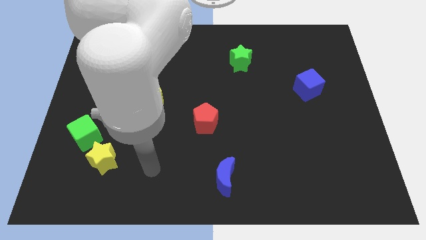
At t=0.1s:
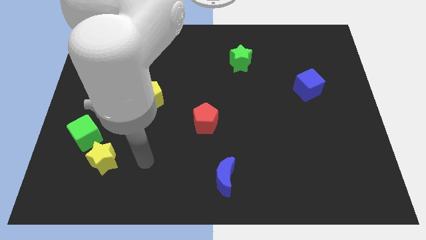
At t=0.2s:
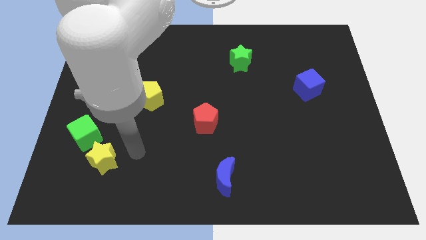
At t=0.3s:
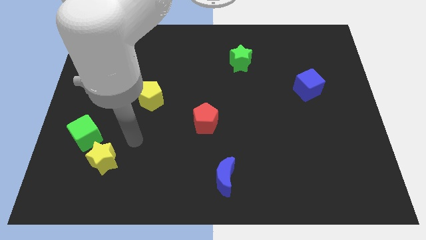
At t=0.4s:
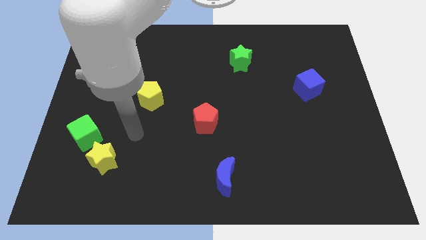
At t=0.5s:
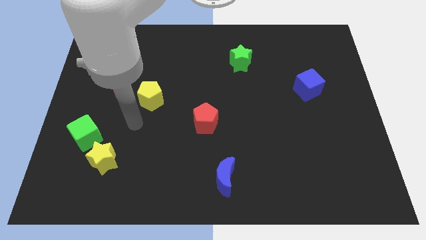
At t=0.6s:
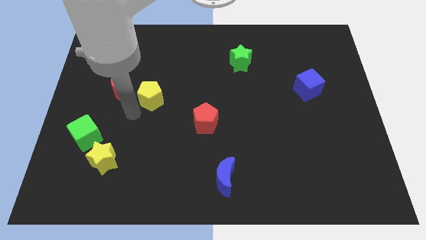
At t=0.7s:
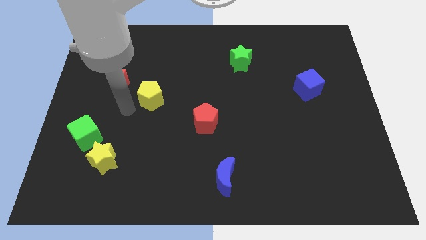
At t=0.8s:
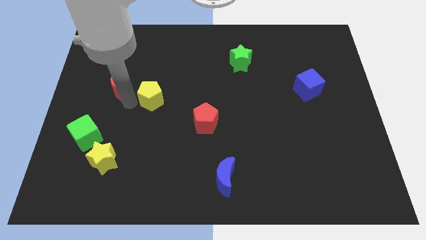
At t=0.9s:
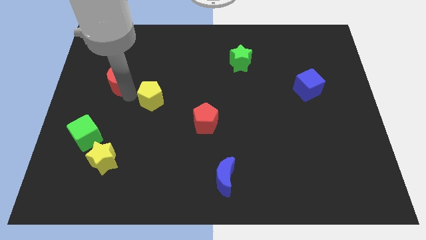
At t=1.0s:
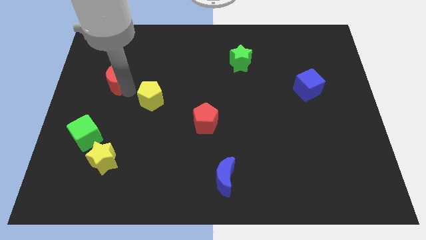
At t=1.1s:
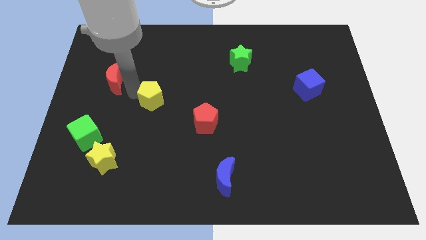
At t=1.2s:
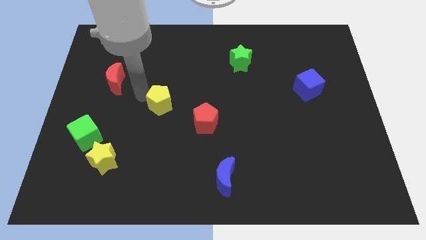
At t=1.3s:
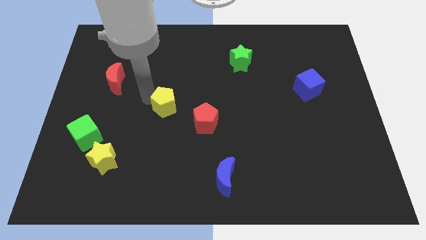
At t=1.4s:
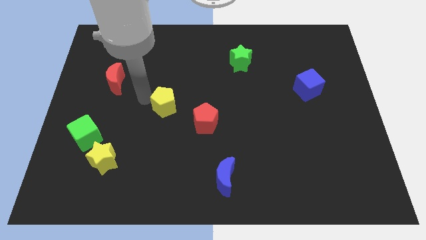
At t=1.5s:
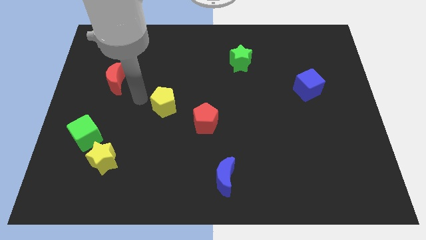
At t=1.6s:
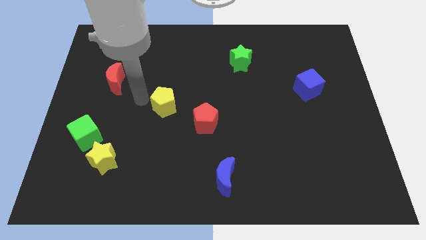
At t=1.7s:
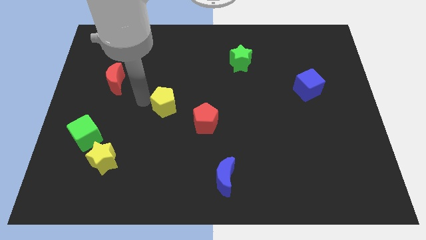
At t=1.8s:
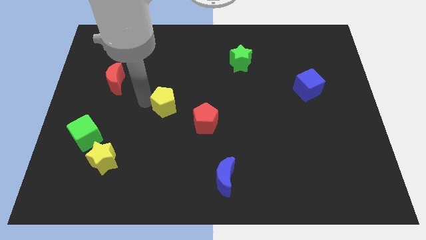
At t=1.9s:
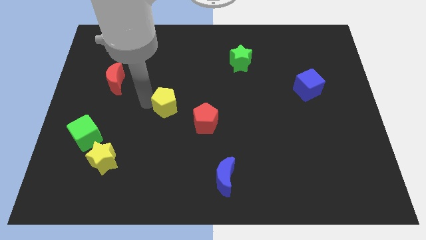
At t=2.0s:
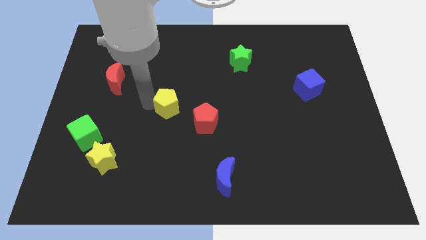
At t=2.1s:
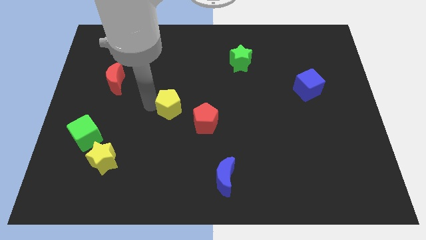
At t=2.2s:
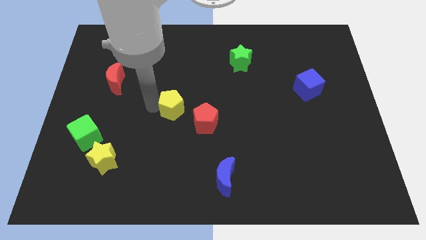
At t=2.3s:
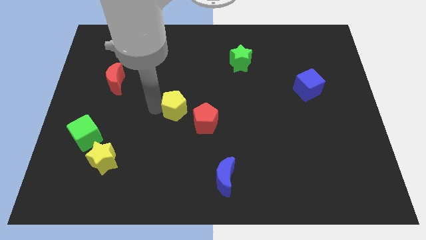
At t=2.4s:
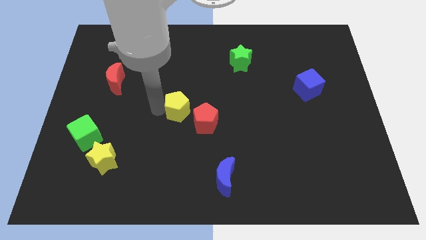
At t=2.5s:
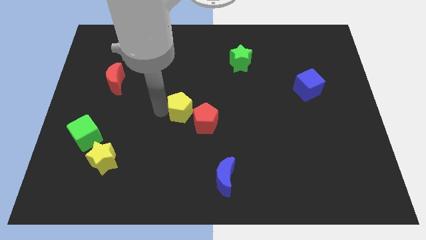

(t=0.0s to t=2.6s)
move the yellow pentagon a bit right

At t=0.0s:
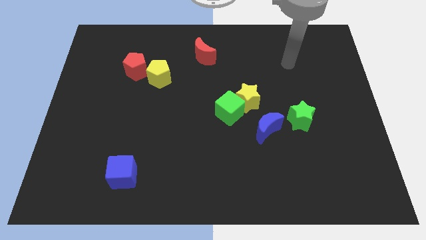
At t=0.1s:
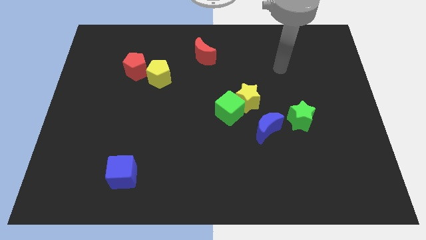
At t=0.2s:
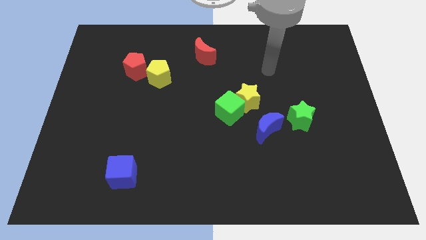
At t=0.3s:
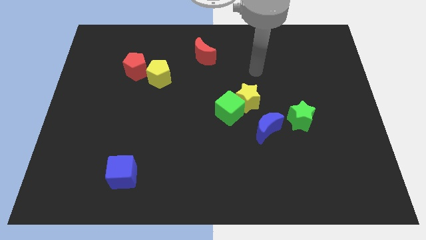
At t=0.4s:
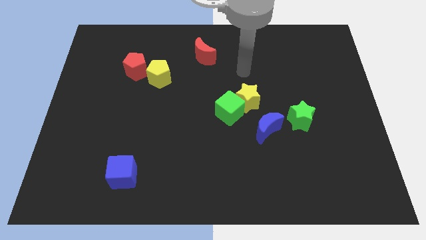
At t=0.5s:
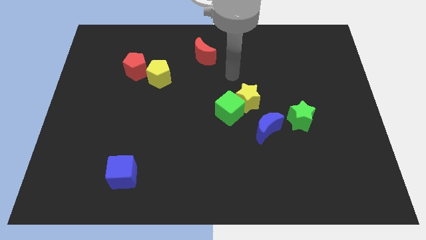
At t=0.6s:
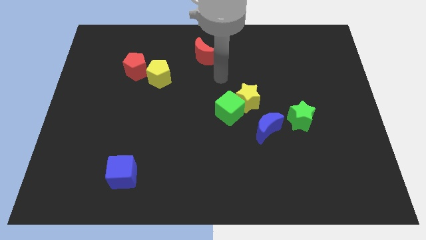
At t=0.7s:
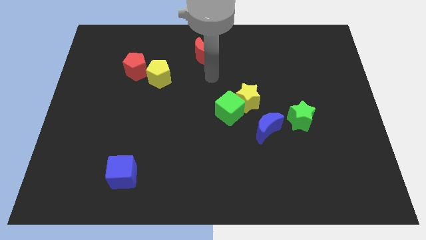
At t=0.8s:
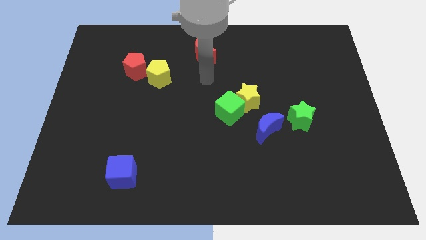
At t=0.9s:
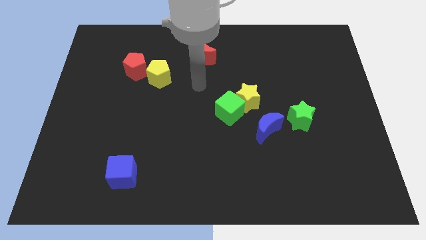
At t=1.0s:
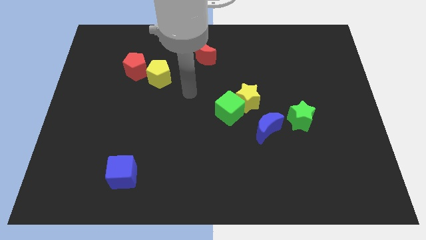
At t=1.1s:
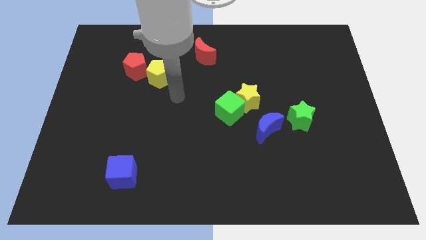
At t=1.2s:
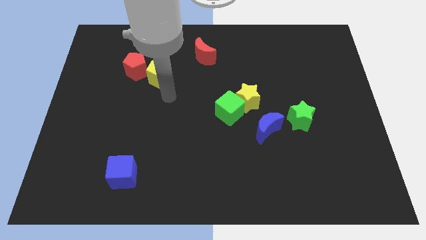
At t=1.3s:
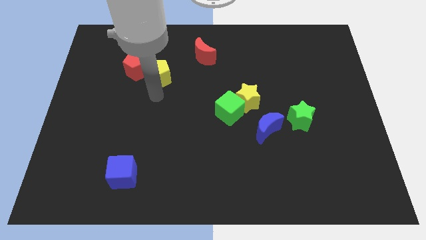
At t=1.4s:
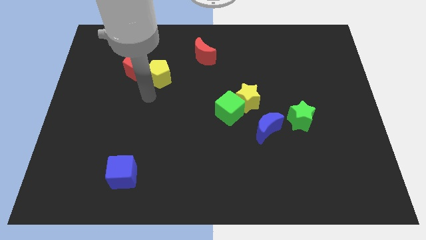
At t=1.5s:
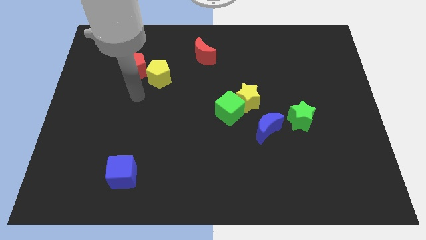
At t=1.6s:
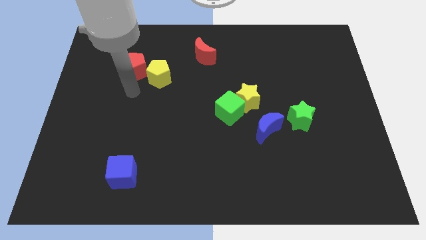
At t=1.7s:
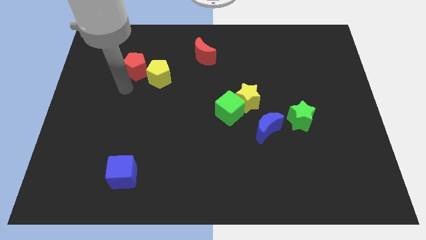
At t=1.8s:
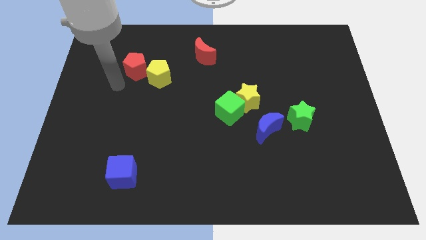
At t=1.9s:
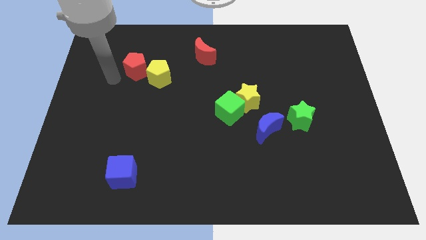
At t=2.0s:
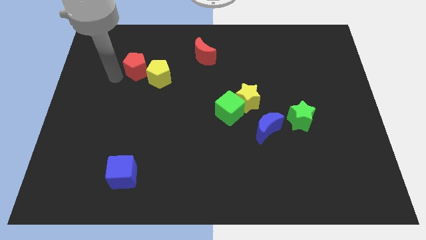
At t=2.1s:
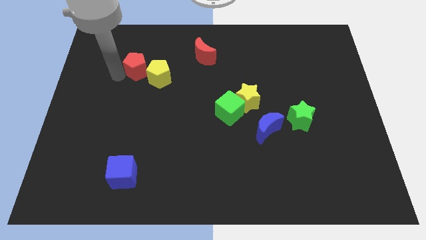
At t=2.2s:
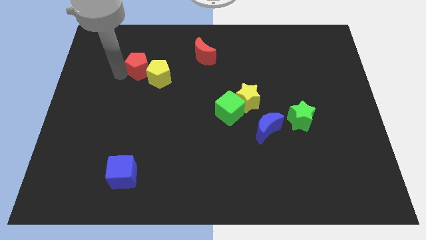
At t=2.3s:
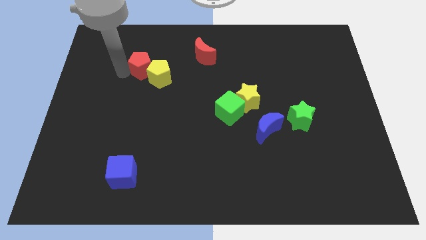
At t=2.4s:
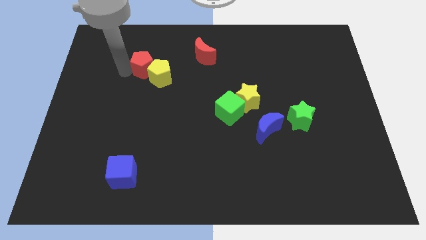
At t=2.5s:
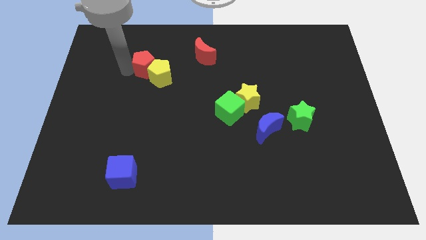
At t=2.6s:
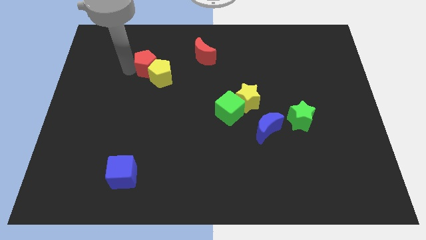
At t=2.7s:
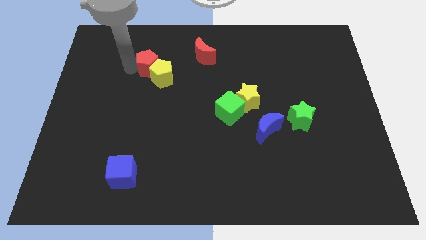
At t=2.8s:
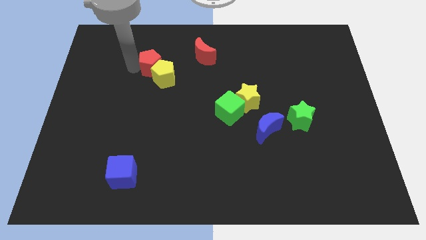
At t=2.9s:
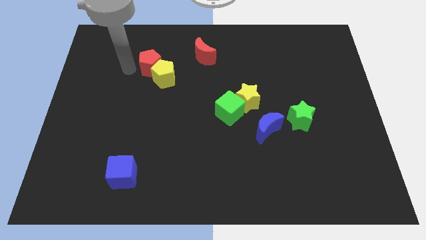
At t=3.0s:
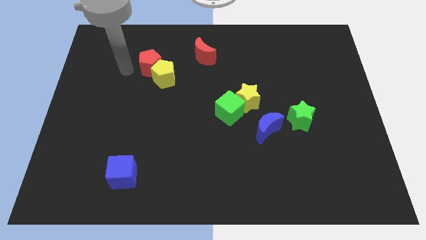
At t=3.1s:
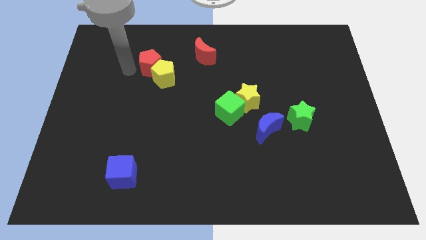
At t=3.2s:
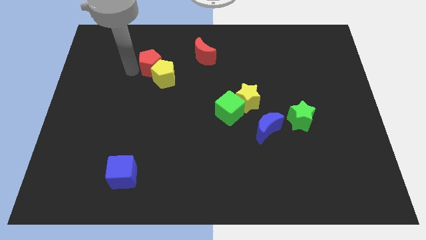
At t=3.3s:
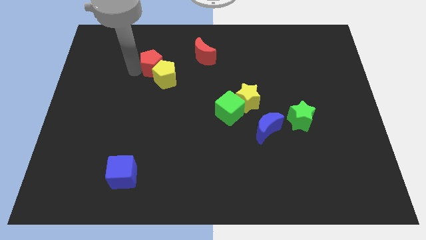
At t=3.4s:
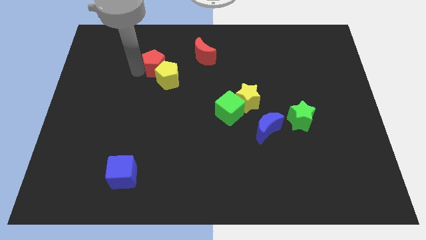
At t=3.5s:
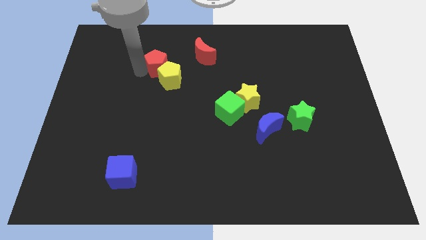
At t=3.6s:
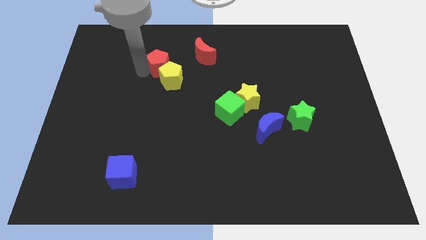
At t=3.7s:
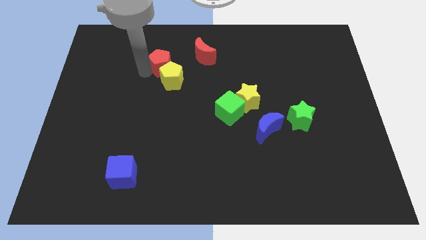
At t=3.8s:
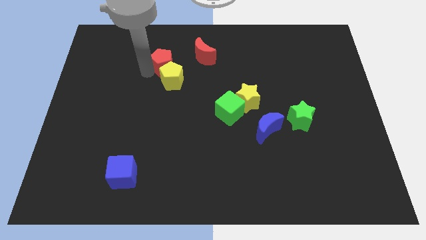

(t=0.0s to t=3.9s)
slightly push the red pentagon to the right

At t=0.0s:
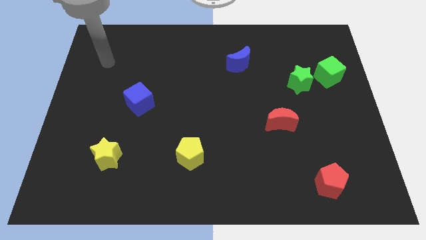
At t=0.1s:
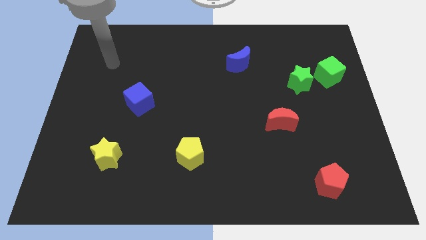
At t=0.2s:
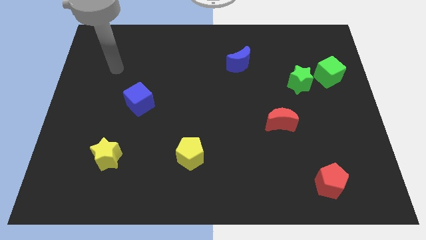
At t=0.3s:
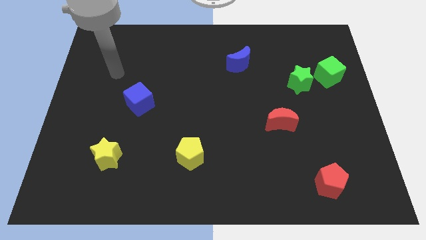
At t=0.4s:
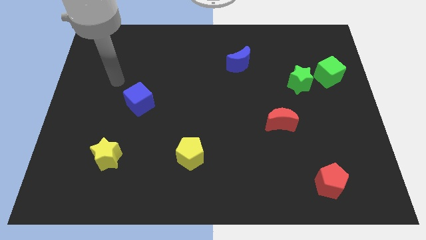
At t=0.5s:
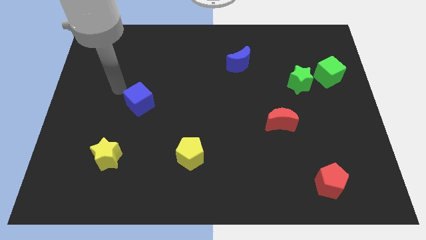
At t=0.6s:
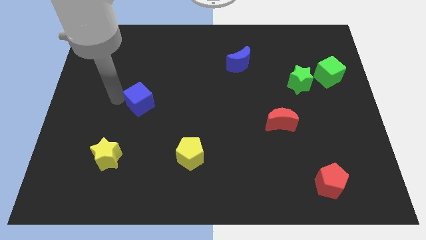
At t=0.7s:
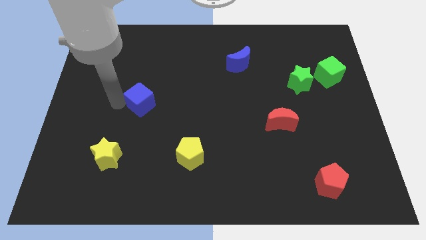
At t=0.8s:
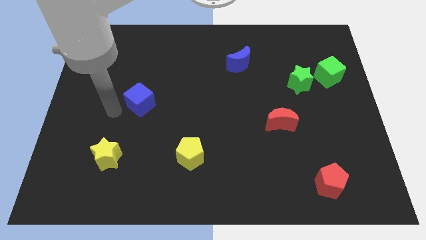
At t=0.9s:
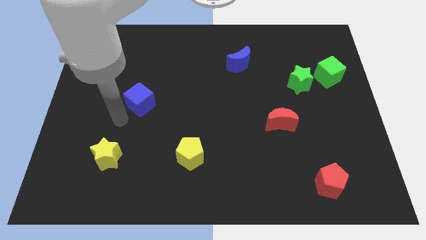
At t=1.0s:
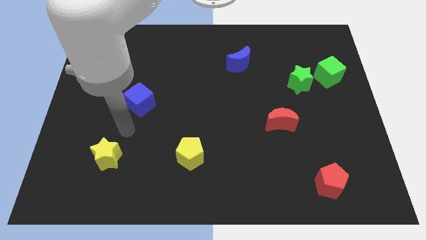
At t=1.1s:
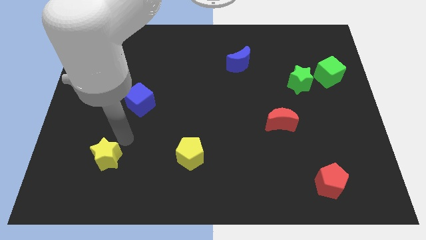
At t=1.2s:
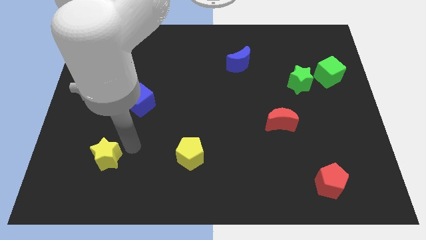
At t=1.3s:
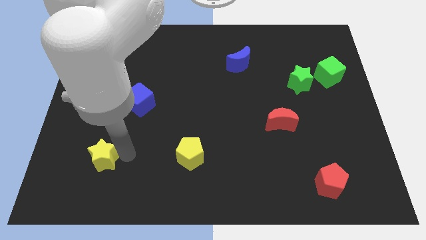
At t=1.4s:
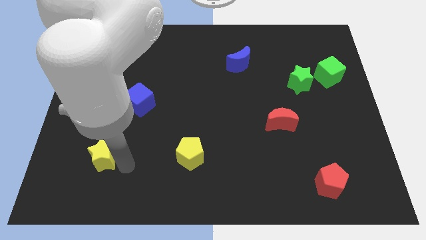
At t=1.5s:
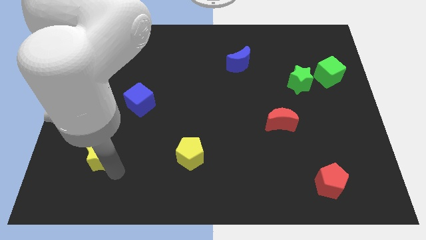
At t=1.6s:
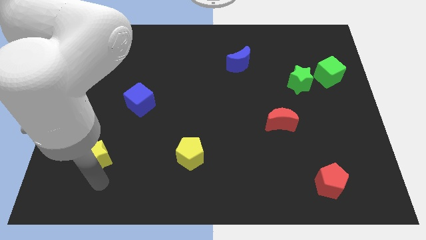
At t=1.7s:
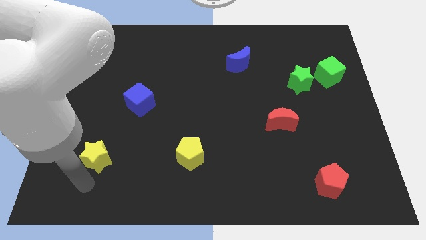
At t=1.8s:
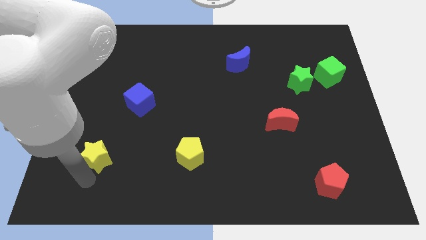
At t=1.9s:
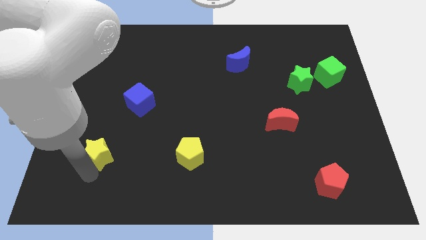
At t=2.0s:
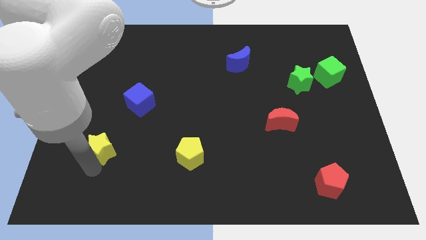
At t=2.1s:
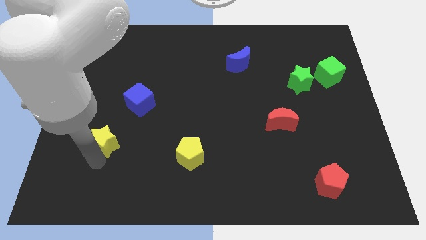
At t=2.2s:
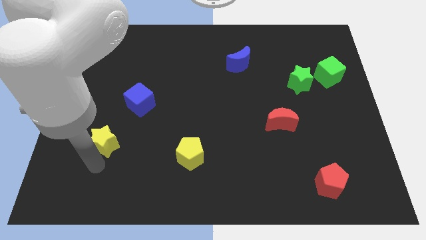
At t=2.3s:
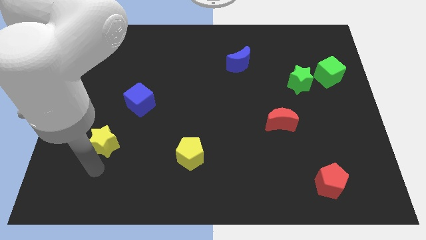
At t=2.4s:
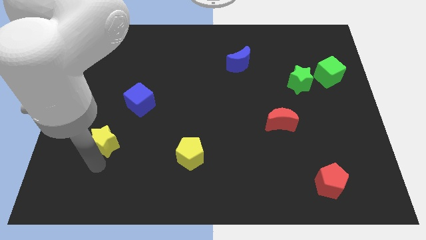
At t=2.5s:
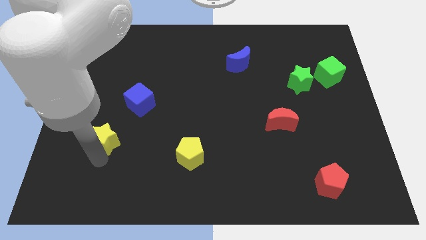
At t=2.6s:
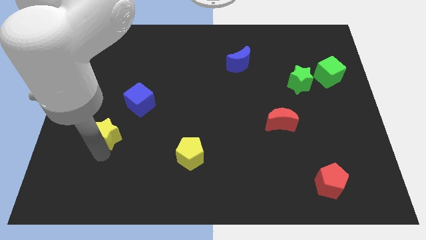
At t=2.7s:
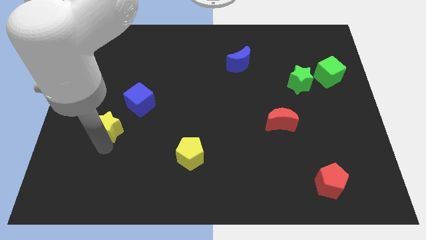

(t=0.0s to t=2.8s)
slide the yellow star upwards a little bit
